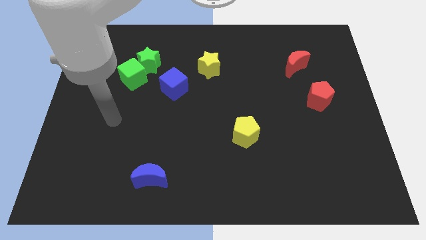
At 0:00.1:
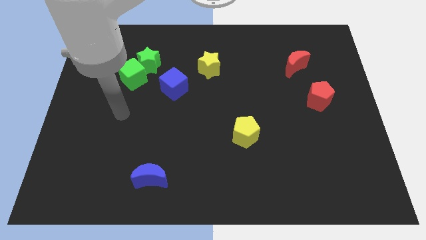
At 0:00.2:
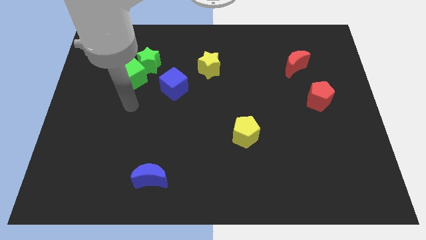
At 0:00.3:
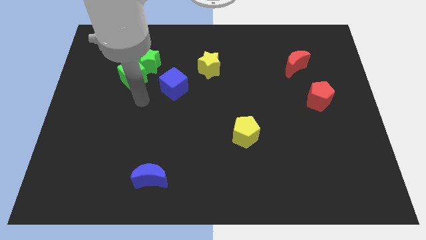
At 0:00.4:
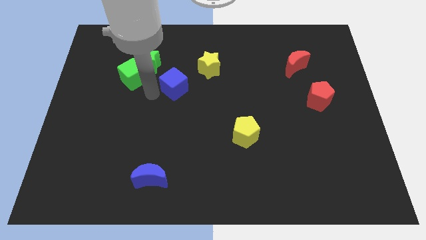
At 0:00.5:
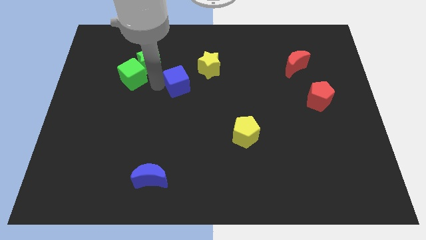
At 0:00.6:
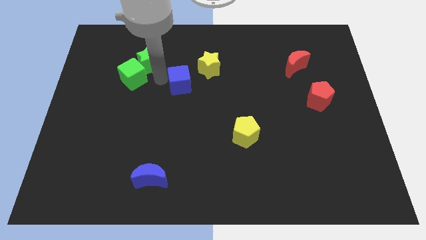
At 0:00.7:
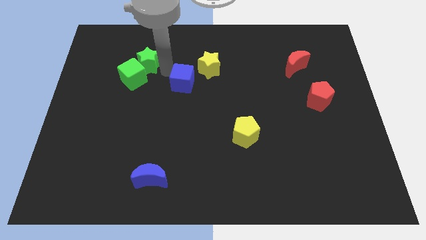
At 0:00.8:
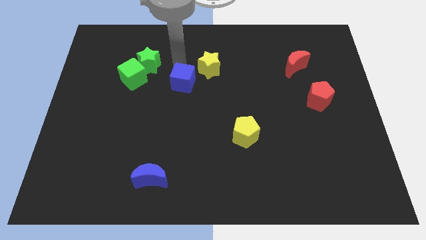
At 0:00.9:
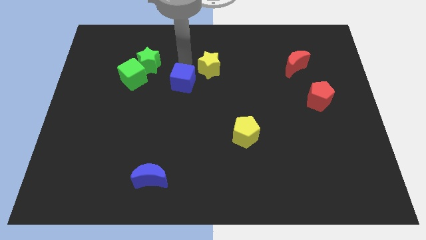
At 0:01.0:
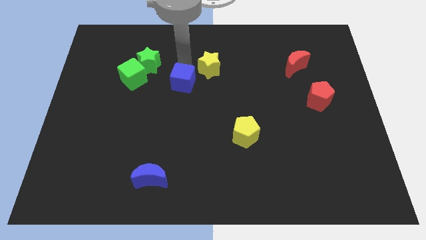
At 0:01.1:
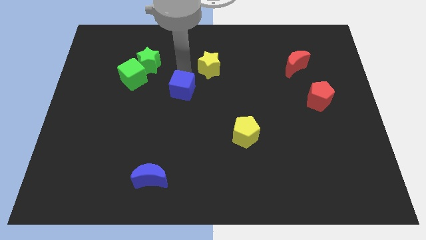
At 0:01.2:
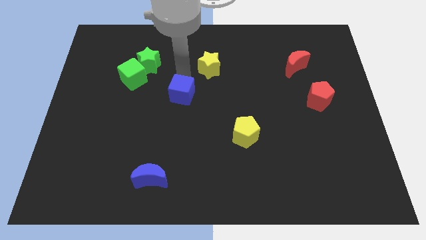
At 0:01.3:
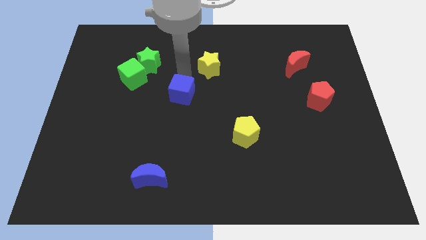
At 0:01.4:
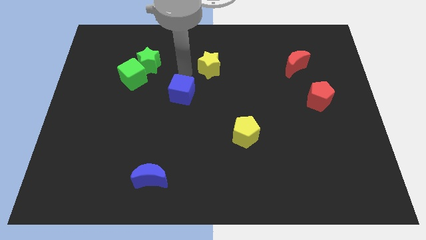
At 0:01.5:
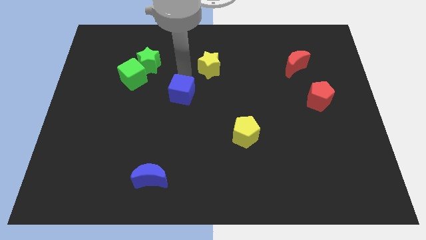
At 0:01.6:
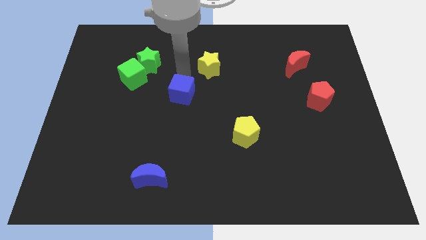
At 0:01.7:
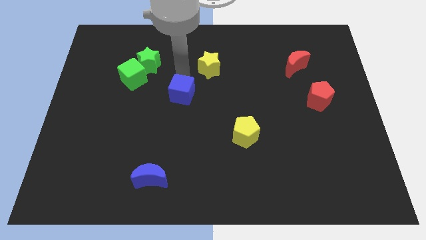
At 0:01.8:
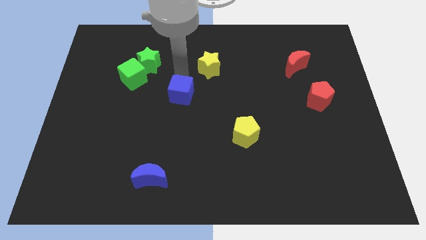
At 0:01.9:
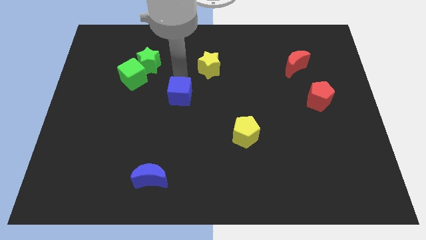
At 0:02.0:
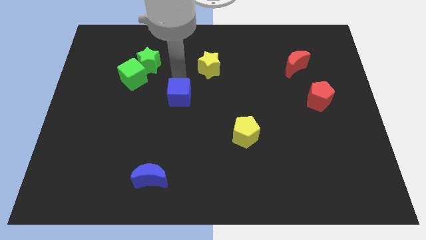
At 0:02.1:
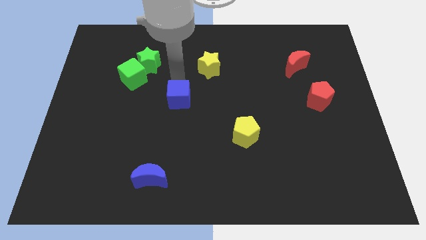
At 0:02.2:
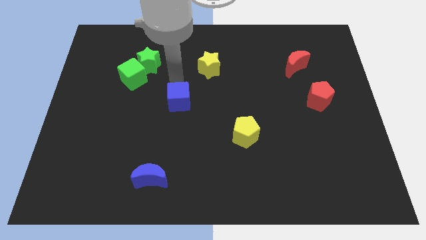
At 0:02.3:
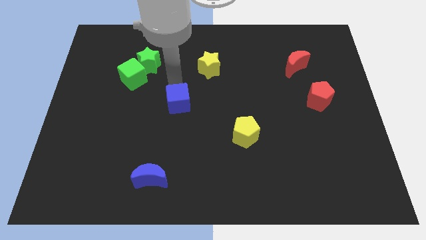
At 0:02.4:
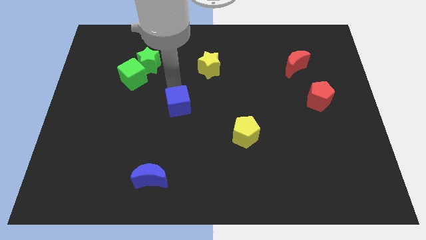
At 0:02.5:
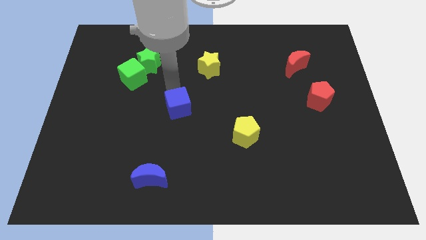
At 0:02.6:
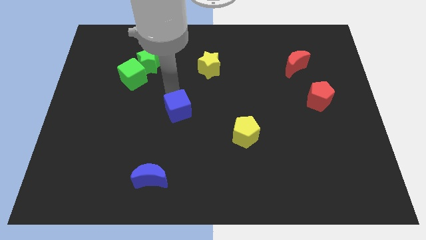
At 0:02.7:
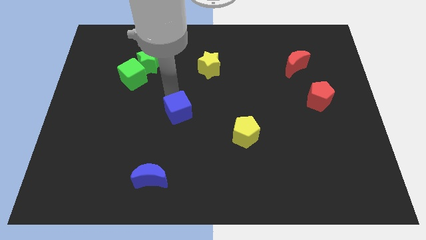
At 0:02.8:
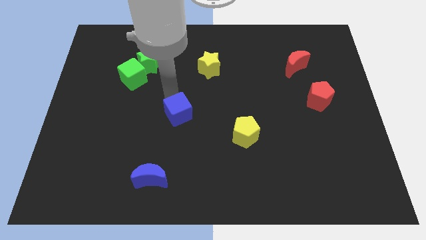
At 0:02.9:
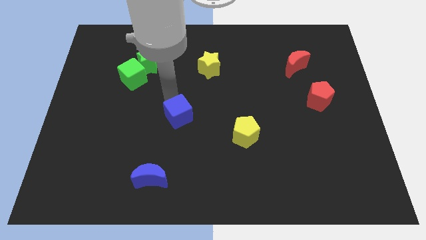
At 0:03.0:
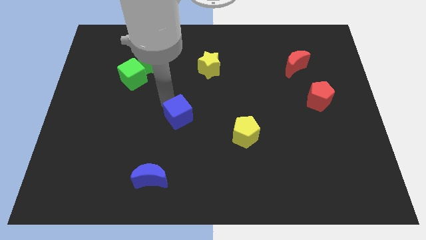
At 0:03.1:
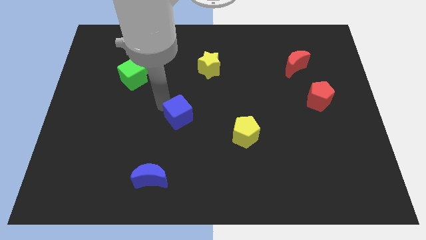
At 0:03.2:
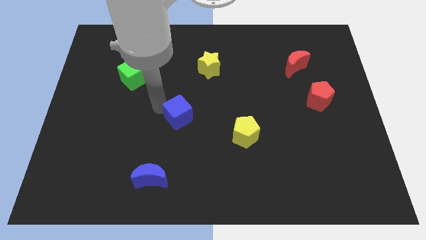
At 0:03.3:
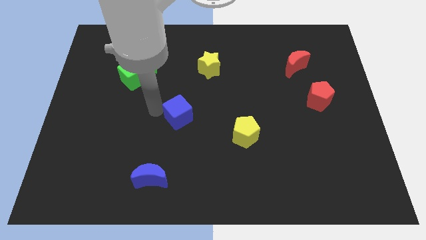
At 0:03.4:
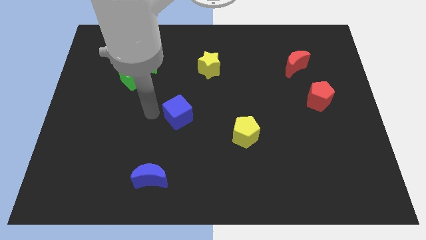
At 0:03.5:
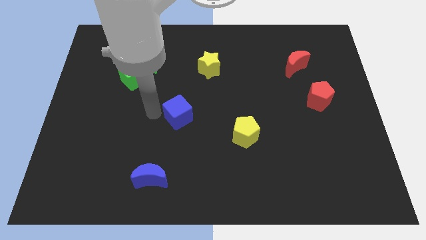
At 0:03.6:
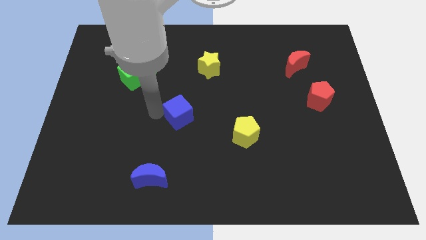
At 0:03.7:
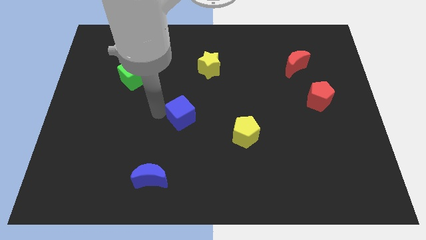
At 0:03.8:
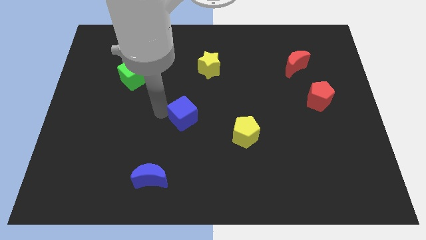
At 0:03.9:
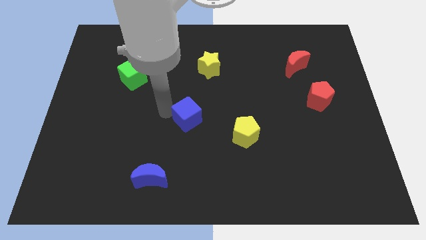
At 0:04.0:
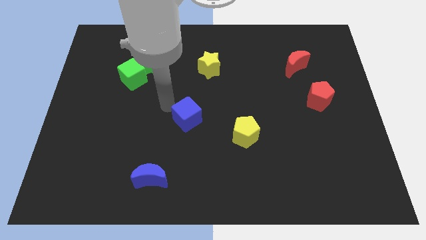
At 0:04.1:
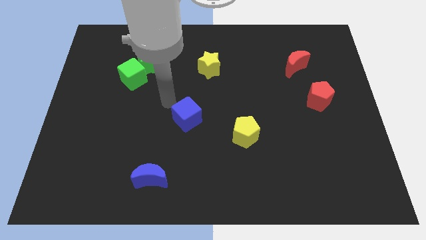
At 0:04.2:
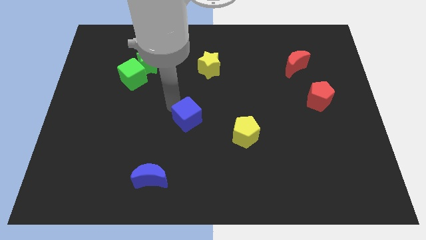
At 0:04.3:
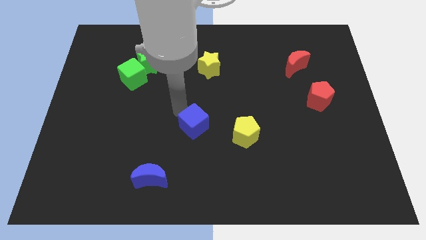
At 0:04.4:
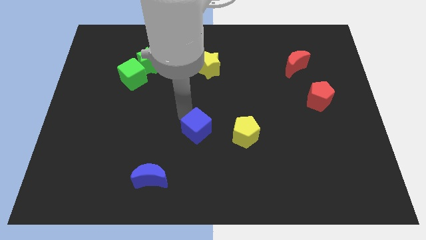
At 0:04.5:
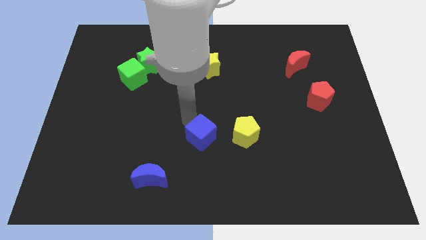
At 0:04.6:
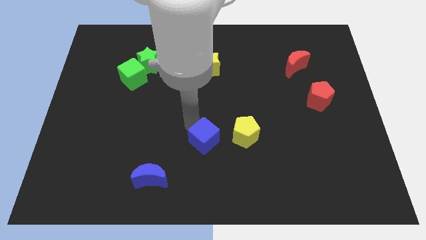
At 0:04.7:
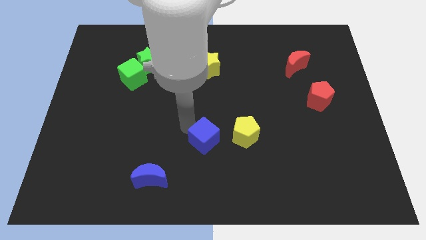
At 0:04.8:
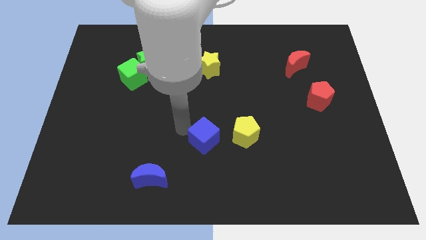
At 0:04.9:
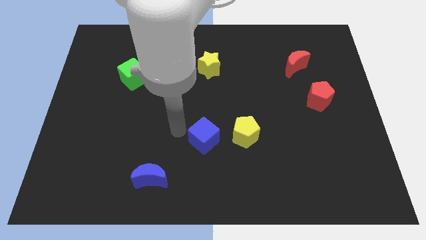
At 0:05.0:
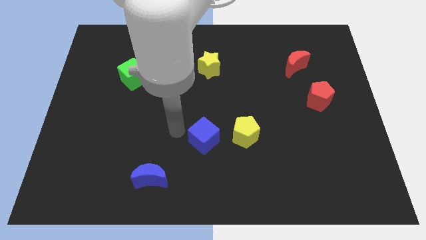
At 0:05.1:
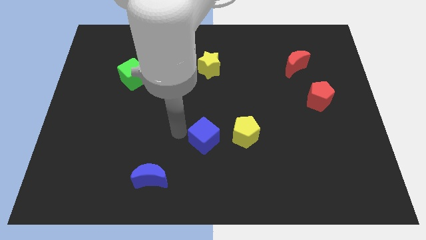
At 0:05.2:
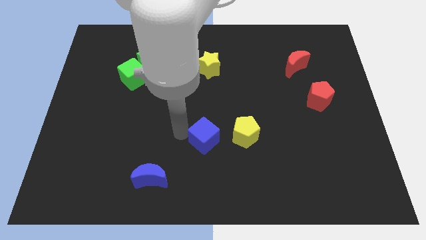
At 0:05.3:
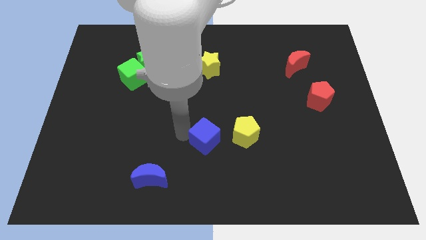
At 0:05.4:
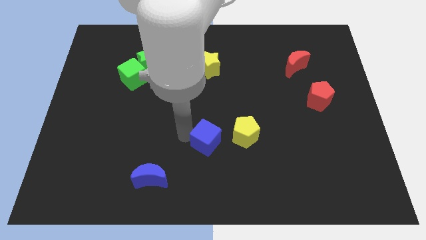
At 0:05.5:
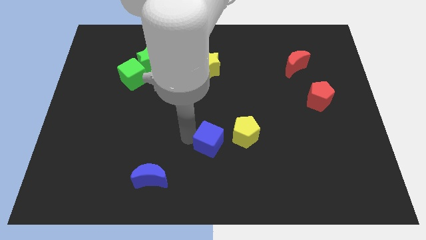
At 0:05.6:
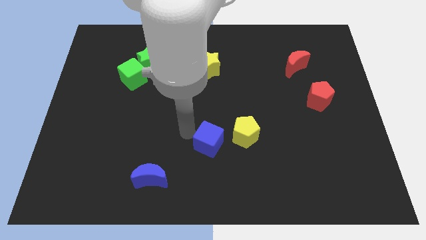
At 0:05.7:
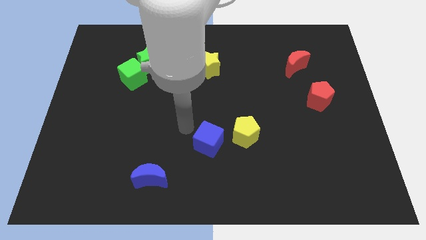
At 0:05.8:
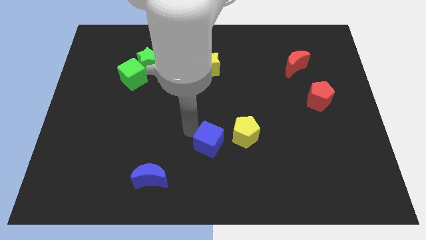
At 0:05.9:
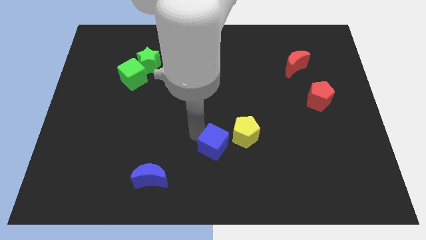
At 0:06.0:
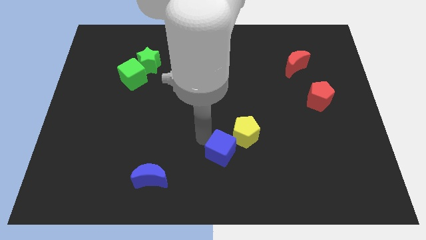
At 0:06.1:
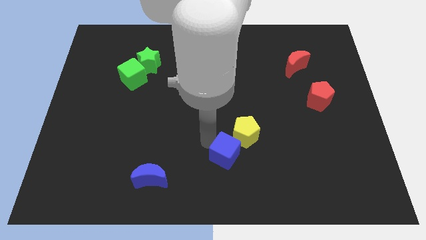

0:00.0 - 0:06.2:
slide the blue cube to the bottom of the yellow pentagon
